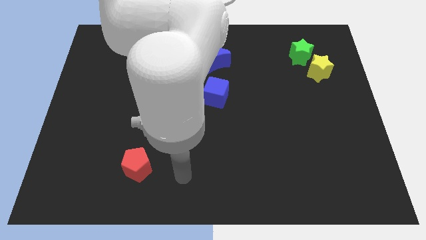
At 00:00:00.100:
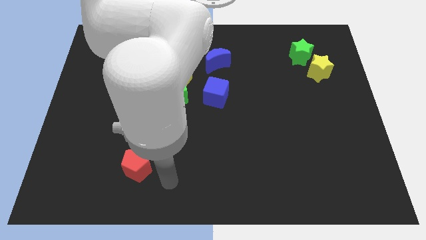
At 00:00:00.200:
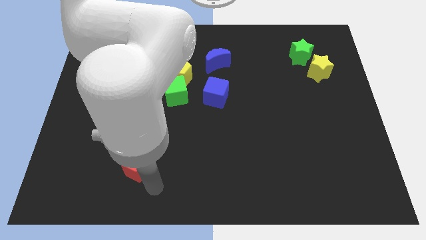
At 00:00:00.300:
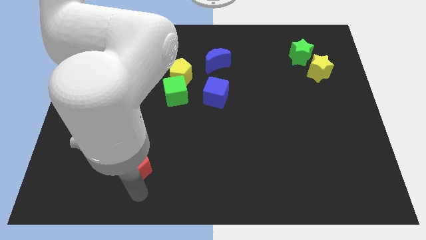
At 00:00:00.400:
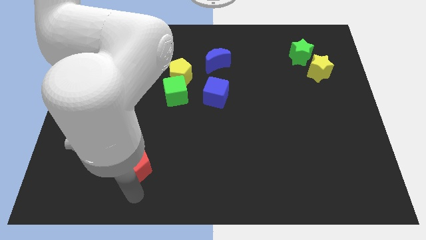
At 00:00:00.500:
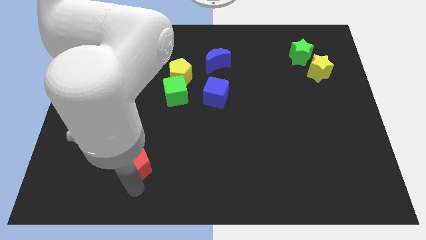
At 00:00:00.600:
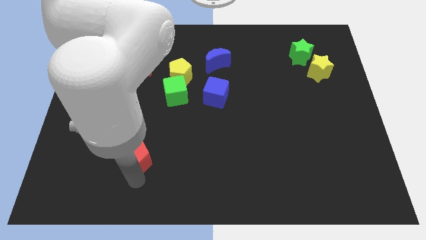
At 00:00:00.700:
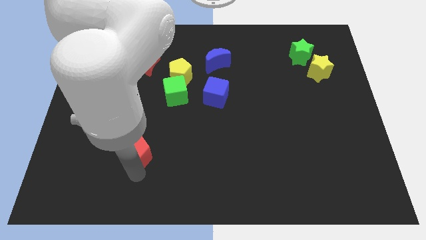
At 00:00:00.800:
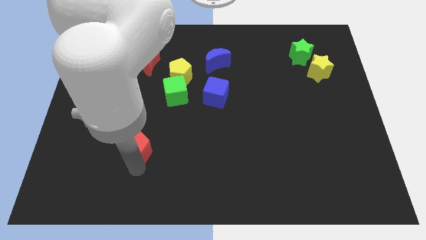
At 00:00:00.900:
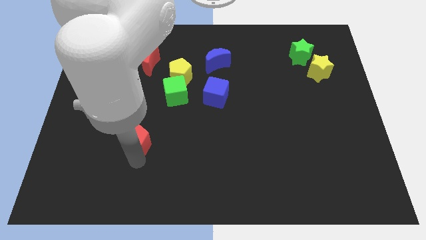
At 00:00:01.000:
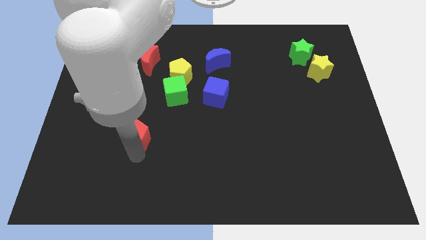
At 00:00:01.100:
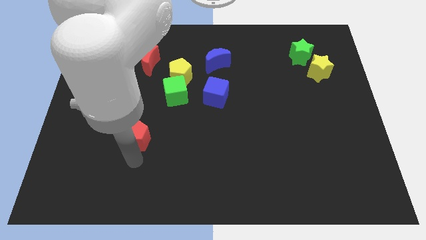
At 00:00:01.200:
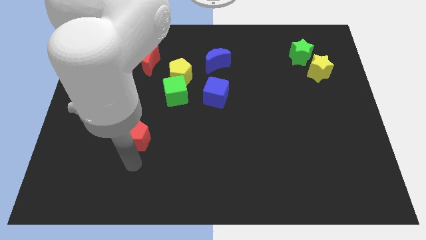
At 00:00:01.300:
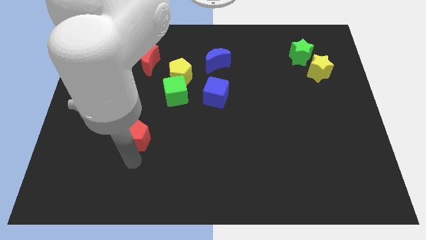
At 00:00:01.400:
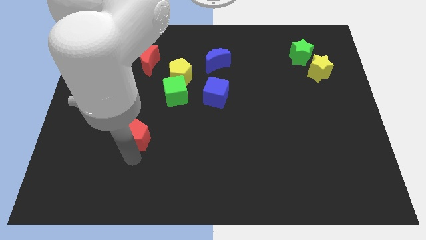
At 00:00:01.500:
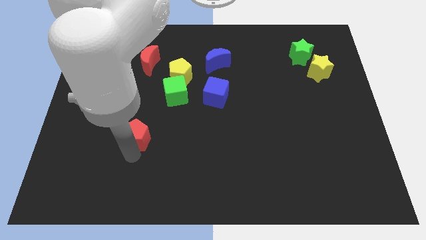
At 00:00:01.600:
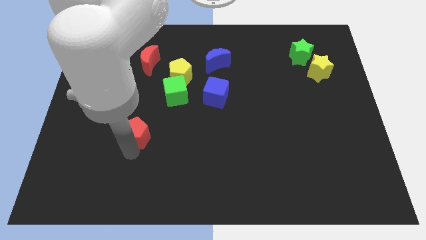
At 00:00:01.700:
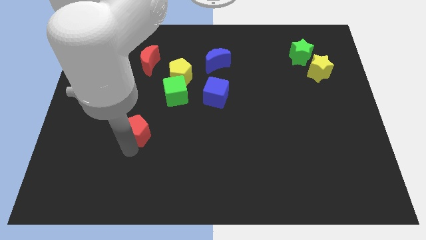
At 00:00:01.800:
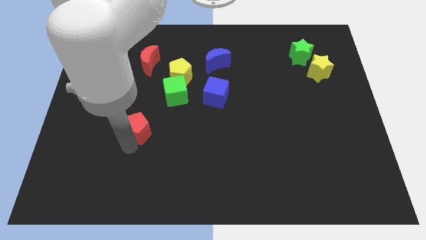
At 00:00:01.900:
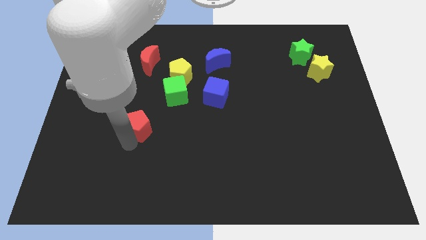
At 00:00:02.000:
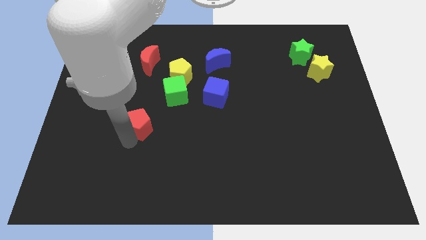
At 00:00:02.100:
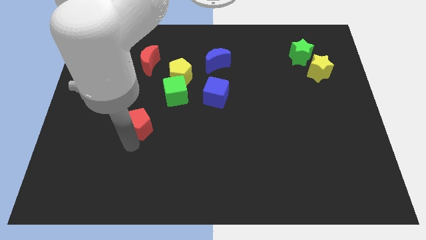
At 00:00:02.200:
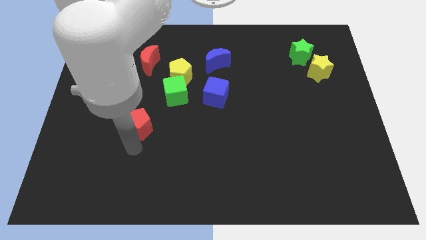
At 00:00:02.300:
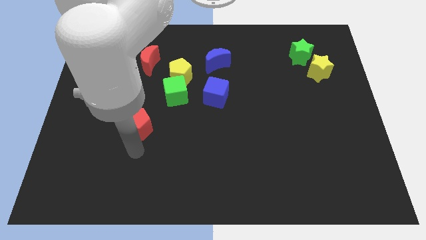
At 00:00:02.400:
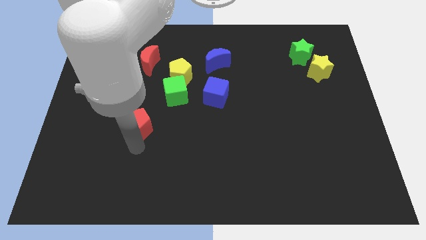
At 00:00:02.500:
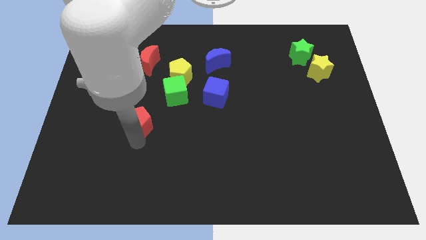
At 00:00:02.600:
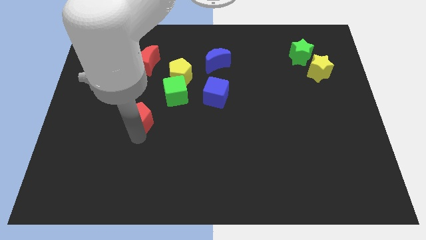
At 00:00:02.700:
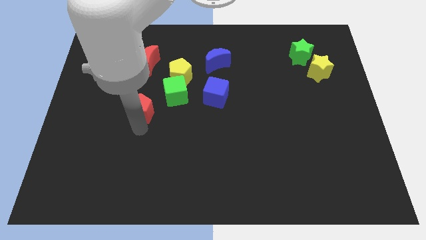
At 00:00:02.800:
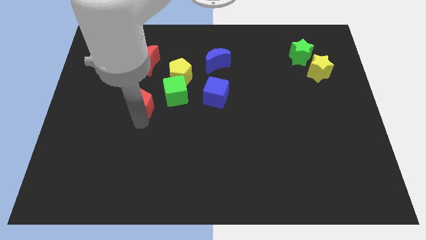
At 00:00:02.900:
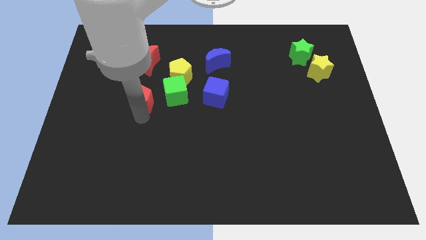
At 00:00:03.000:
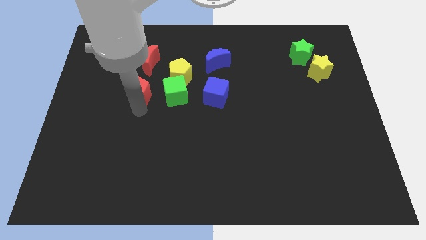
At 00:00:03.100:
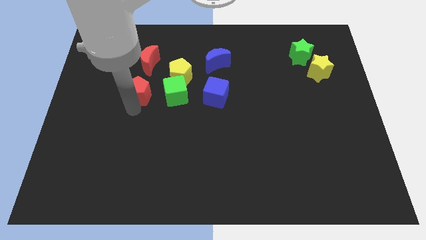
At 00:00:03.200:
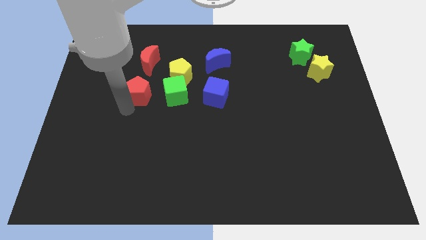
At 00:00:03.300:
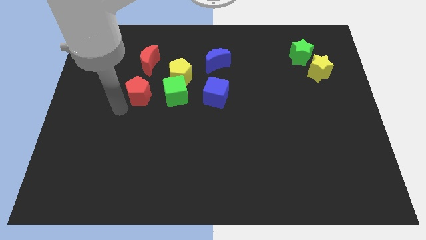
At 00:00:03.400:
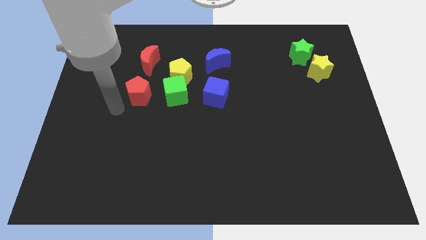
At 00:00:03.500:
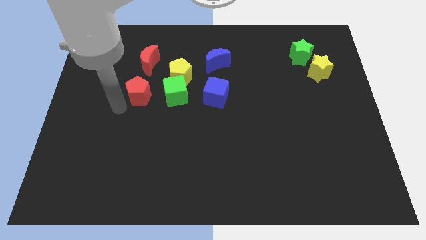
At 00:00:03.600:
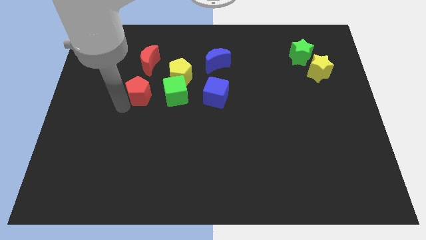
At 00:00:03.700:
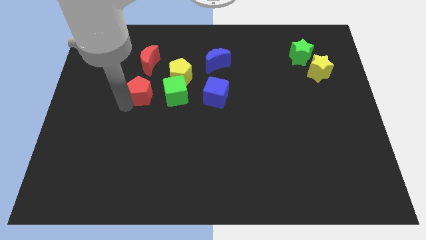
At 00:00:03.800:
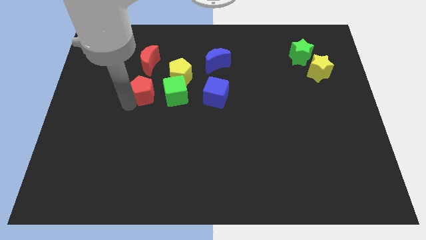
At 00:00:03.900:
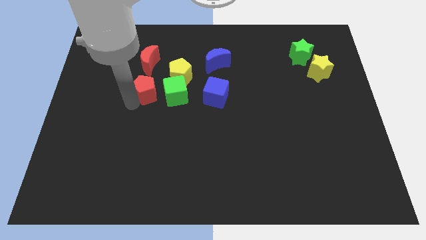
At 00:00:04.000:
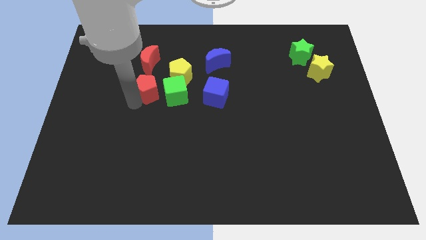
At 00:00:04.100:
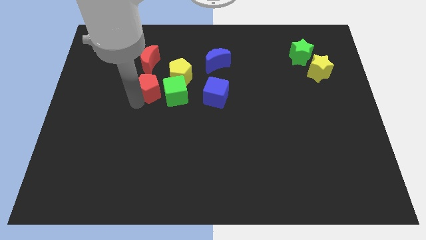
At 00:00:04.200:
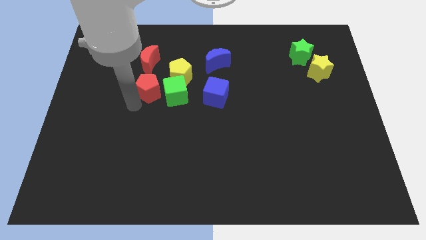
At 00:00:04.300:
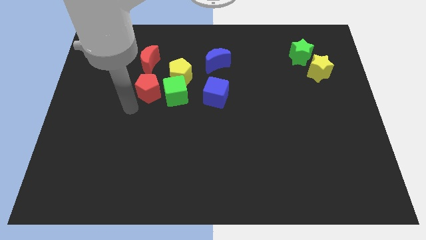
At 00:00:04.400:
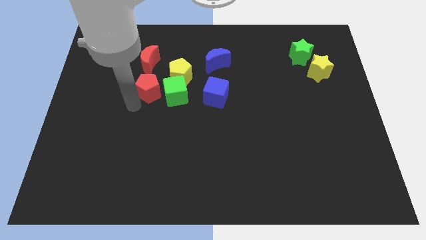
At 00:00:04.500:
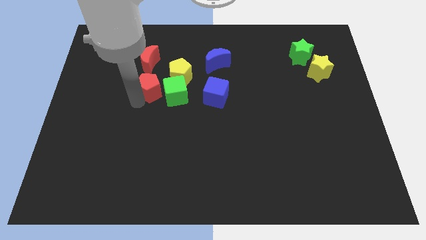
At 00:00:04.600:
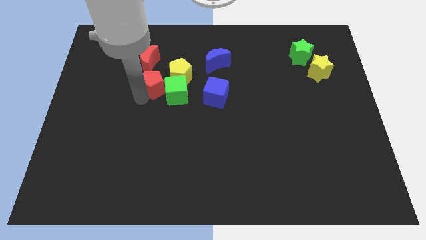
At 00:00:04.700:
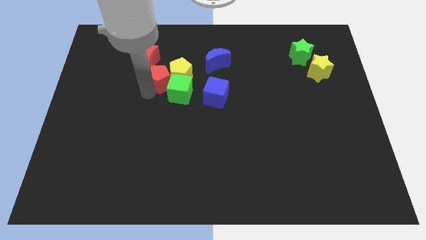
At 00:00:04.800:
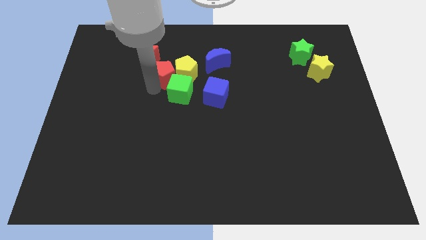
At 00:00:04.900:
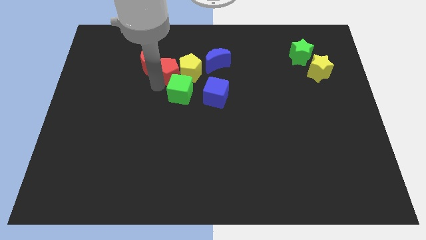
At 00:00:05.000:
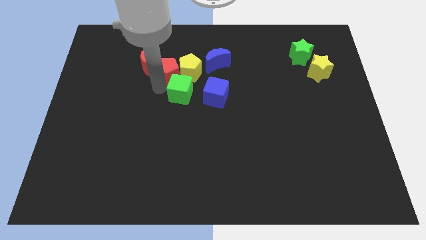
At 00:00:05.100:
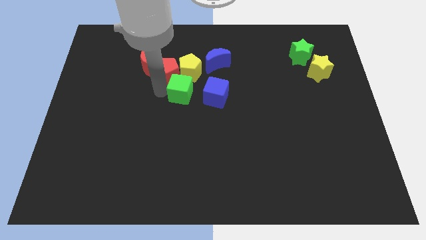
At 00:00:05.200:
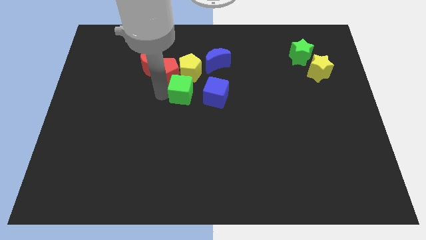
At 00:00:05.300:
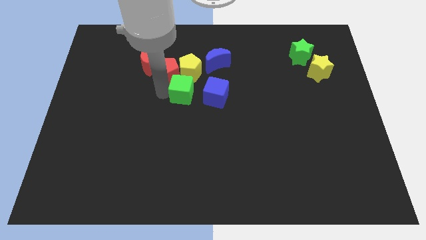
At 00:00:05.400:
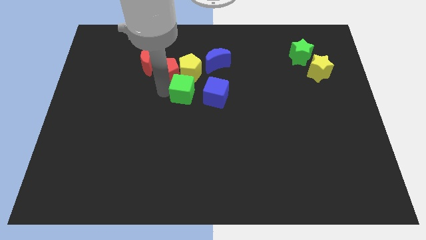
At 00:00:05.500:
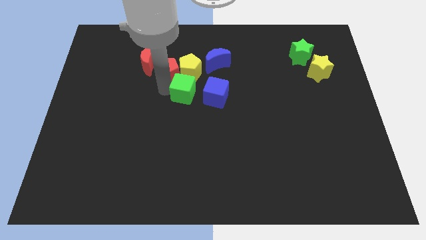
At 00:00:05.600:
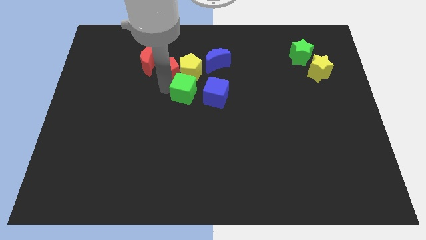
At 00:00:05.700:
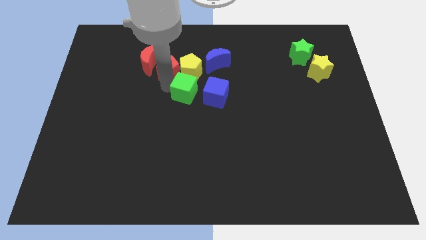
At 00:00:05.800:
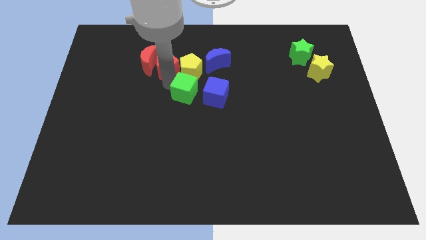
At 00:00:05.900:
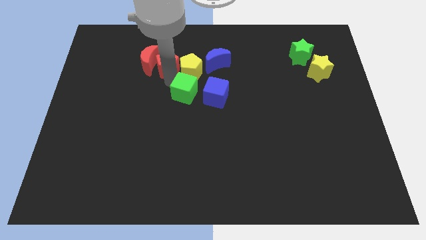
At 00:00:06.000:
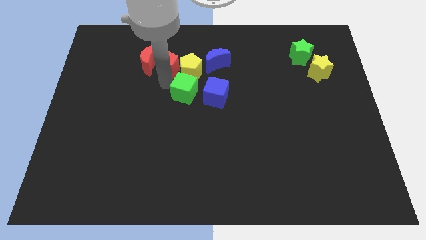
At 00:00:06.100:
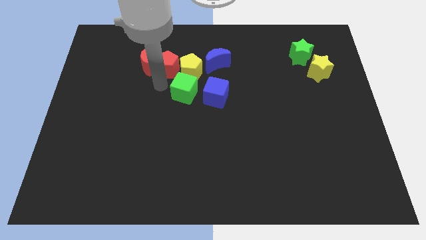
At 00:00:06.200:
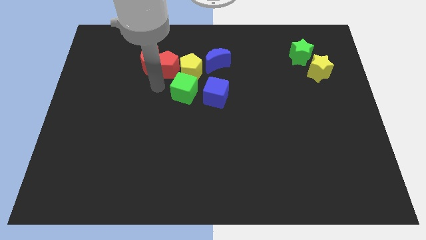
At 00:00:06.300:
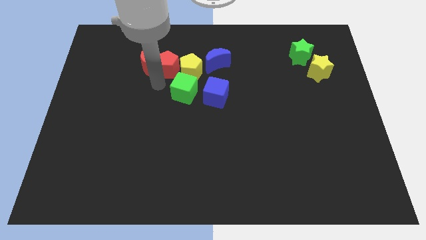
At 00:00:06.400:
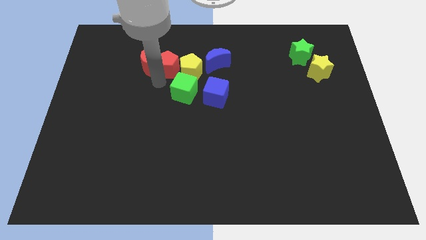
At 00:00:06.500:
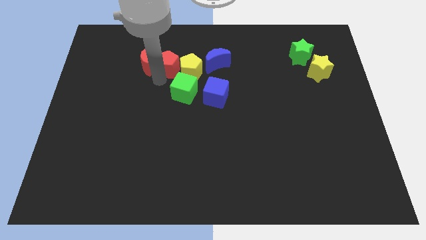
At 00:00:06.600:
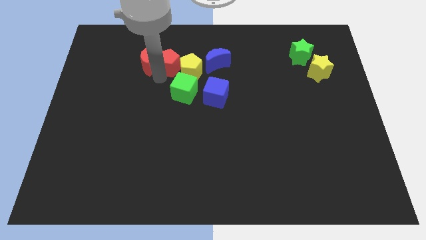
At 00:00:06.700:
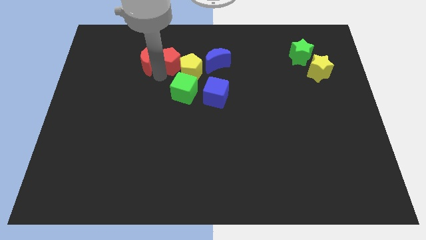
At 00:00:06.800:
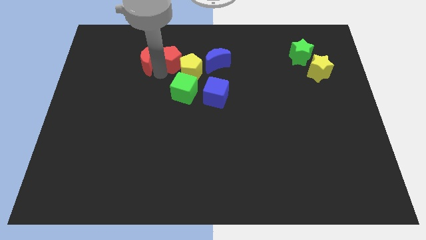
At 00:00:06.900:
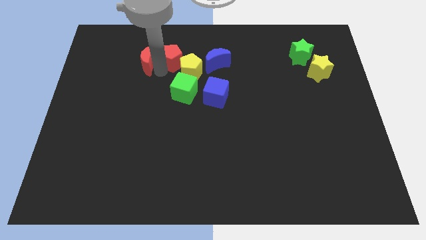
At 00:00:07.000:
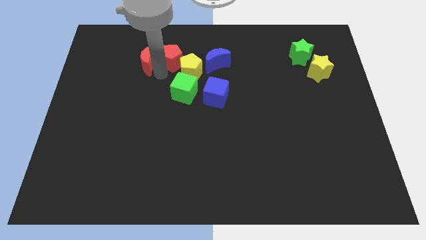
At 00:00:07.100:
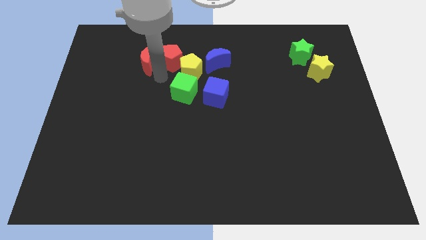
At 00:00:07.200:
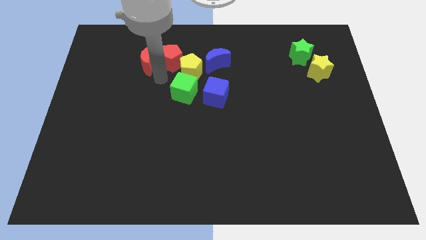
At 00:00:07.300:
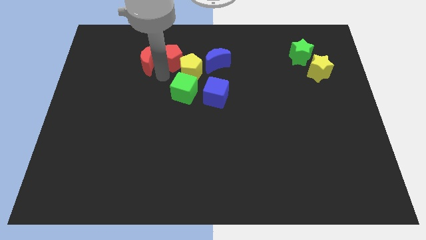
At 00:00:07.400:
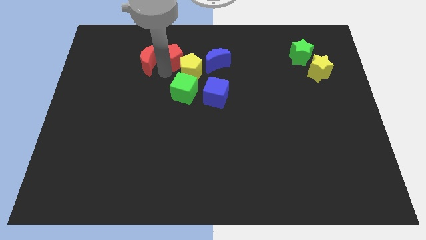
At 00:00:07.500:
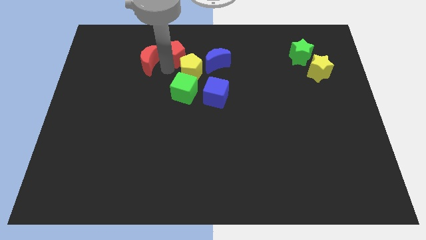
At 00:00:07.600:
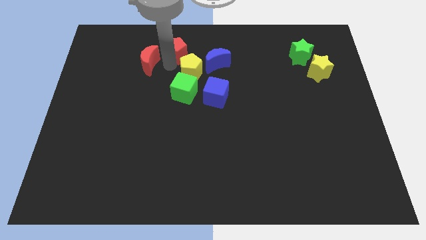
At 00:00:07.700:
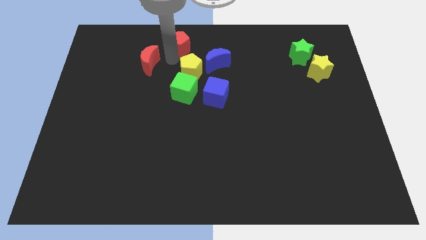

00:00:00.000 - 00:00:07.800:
push the red pentagon to the towards your base
